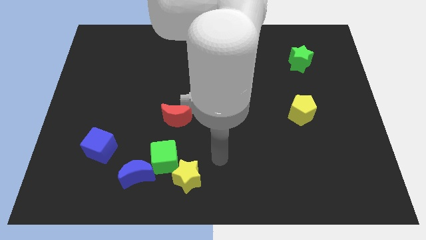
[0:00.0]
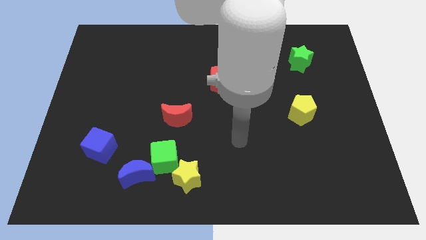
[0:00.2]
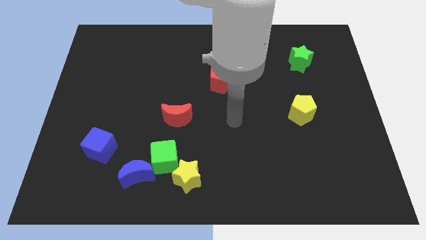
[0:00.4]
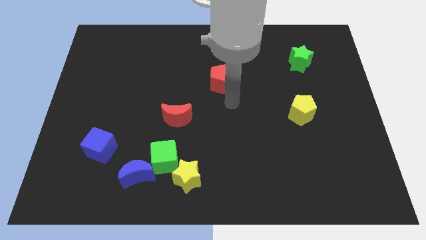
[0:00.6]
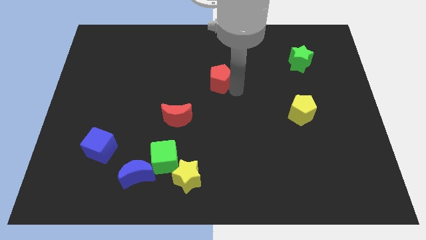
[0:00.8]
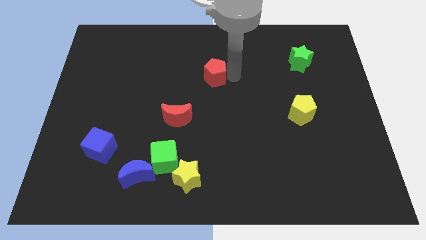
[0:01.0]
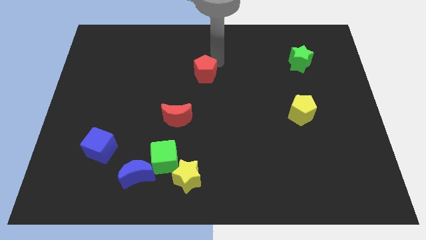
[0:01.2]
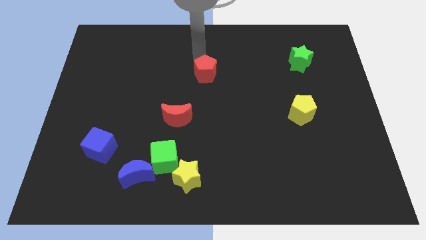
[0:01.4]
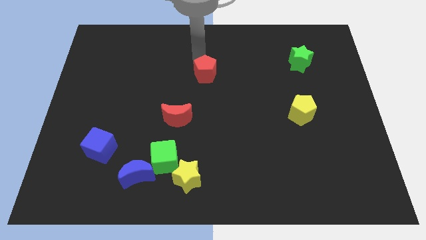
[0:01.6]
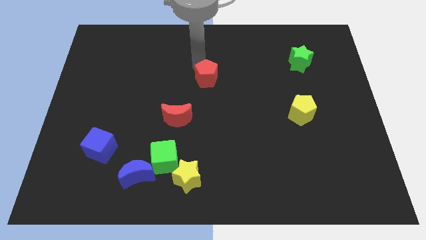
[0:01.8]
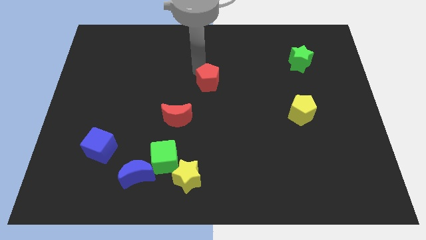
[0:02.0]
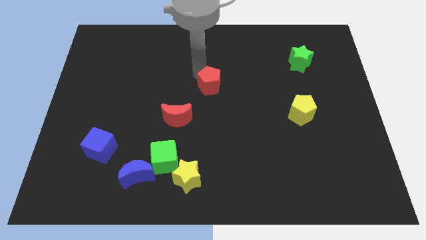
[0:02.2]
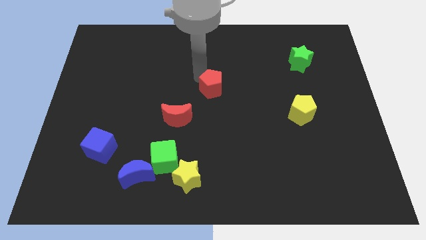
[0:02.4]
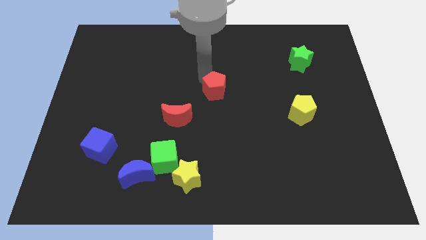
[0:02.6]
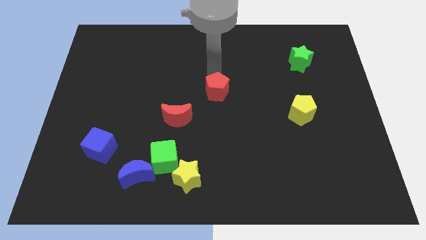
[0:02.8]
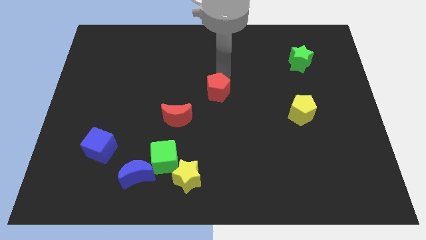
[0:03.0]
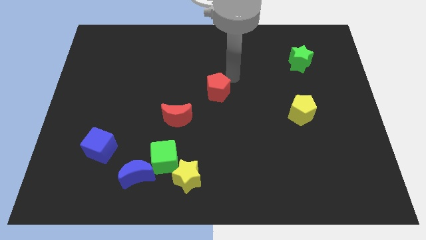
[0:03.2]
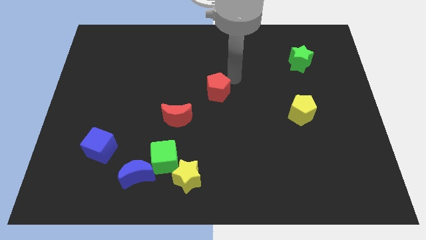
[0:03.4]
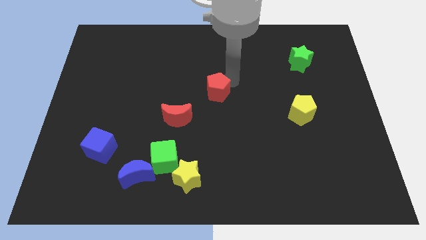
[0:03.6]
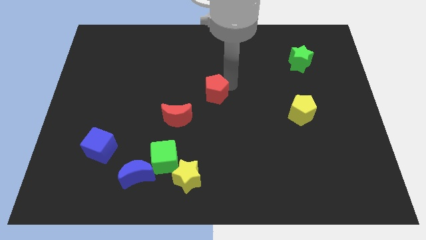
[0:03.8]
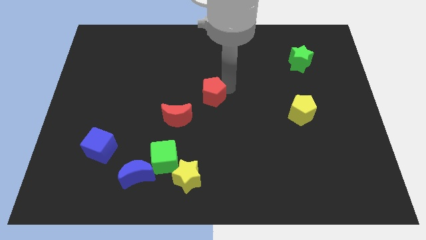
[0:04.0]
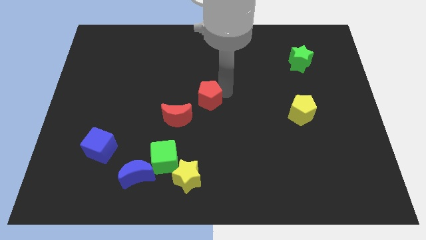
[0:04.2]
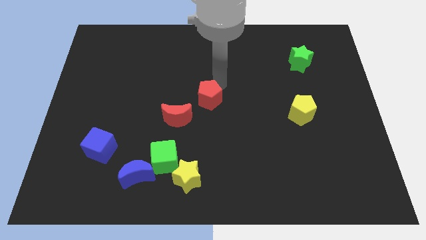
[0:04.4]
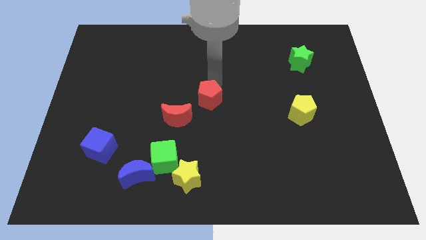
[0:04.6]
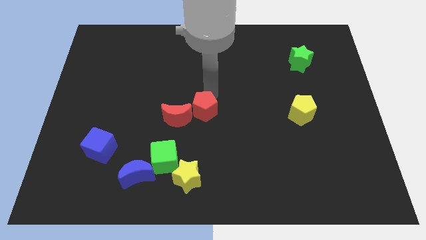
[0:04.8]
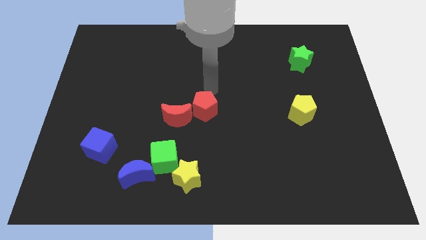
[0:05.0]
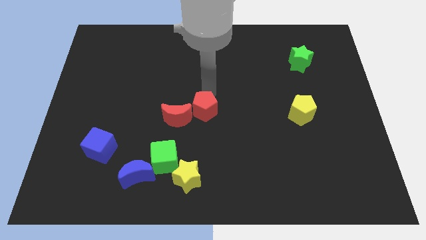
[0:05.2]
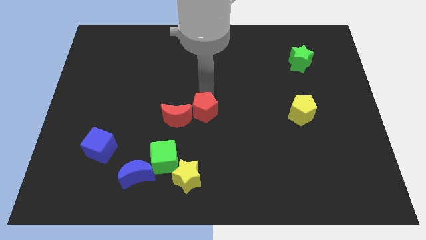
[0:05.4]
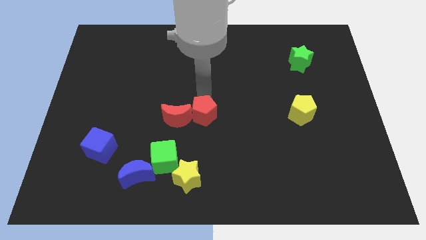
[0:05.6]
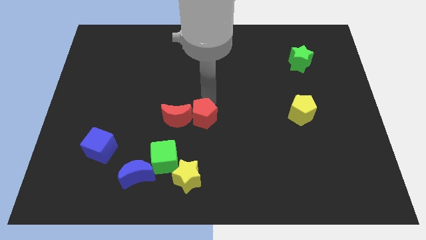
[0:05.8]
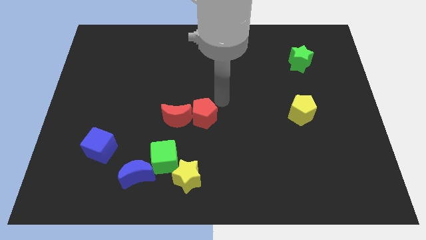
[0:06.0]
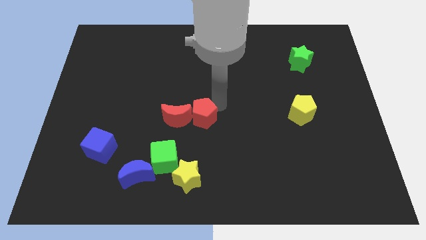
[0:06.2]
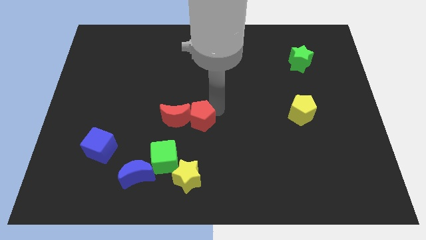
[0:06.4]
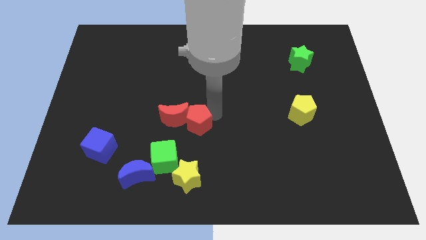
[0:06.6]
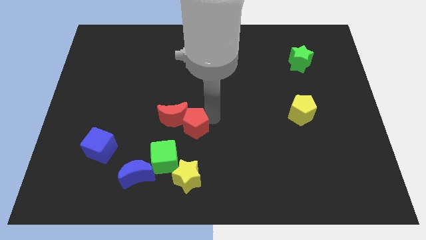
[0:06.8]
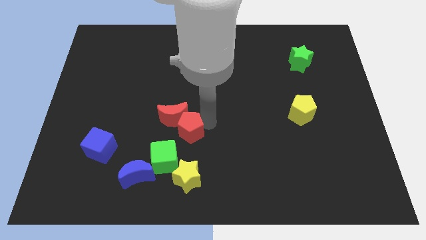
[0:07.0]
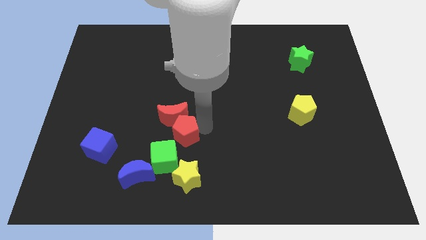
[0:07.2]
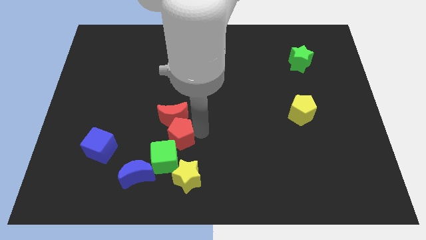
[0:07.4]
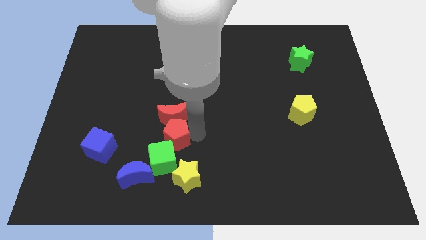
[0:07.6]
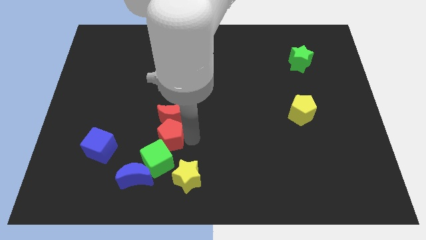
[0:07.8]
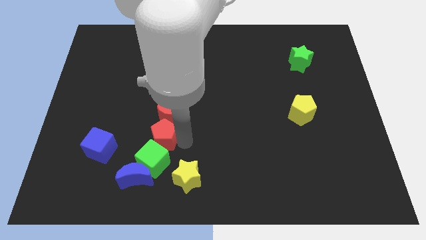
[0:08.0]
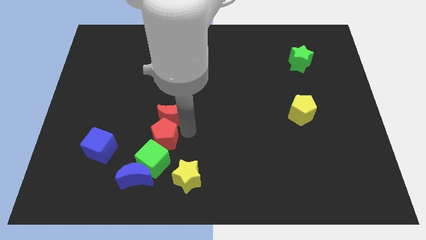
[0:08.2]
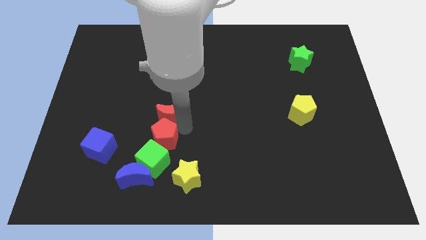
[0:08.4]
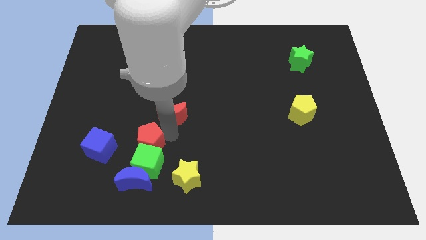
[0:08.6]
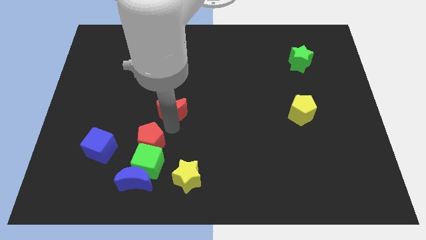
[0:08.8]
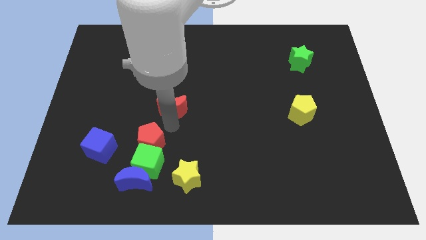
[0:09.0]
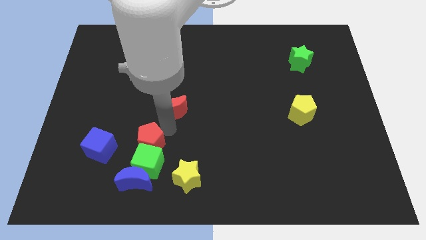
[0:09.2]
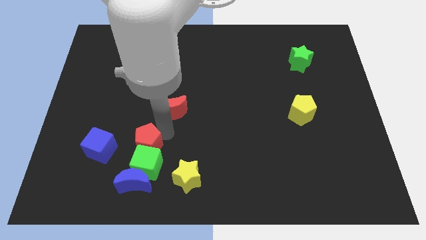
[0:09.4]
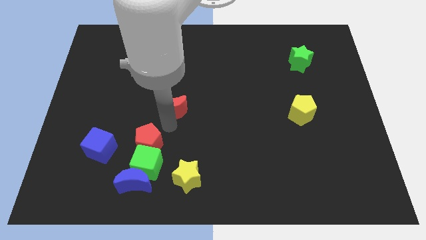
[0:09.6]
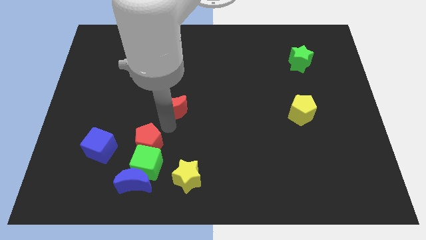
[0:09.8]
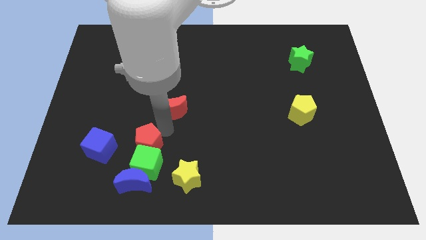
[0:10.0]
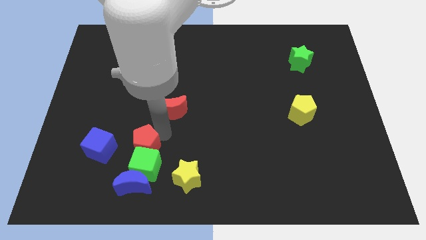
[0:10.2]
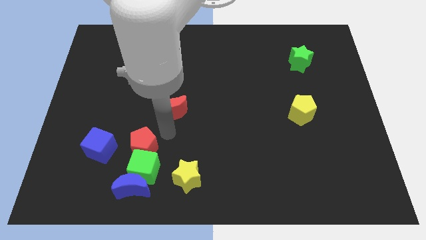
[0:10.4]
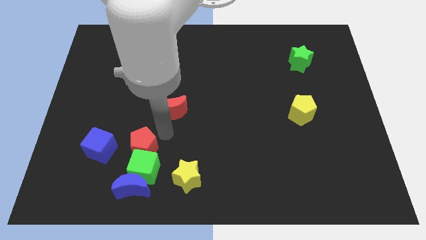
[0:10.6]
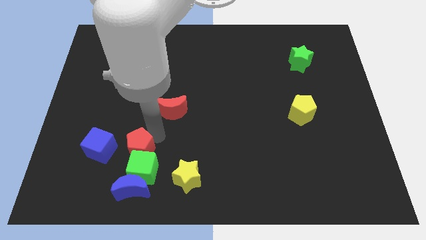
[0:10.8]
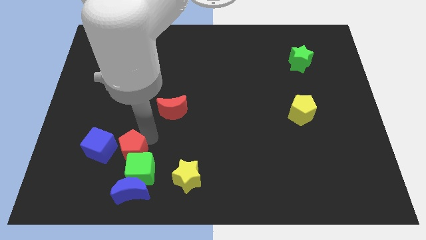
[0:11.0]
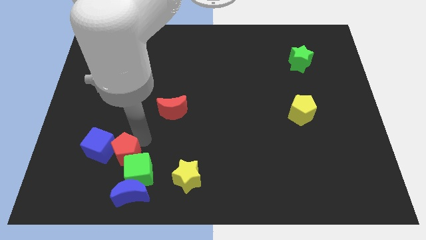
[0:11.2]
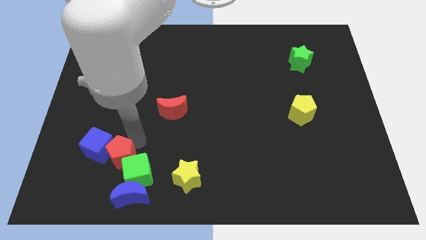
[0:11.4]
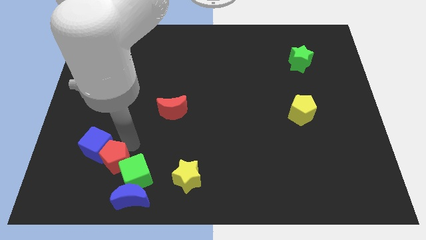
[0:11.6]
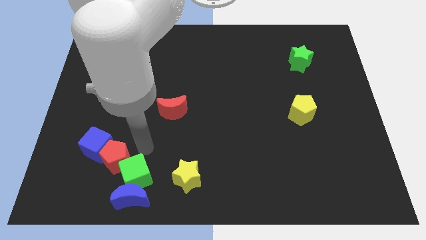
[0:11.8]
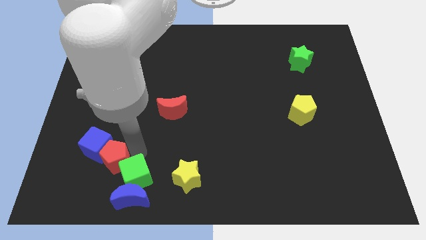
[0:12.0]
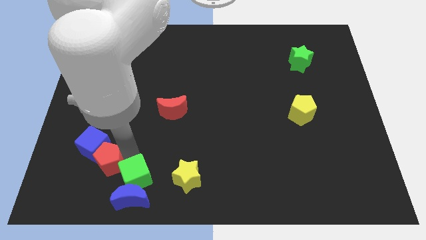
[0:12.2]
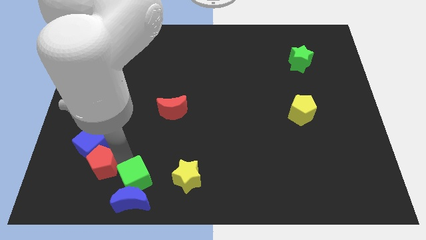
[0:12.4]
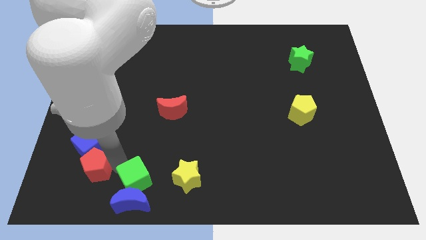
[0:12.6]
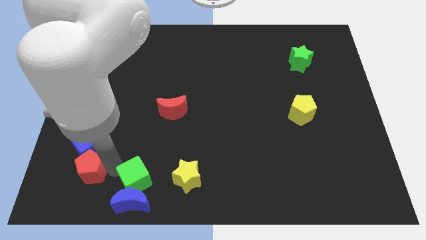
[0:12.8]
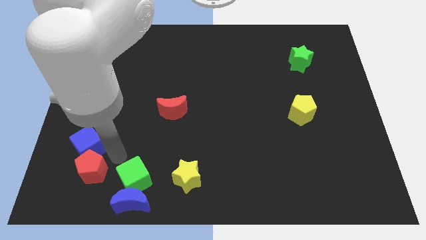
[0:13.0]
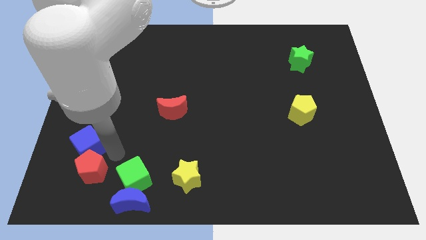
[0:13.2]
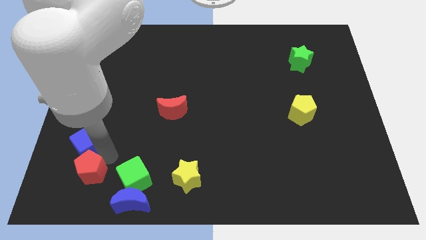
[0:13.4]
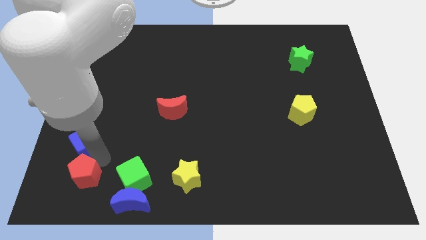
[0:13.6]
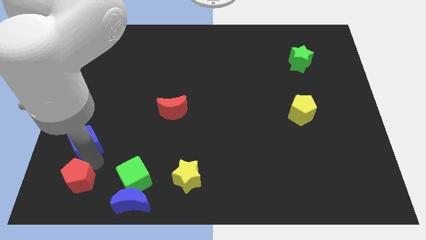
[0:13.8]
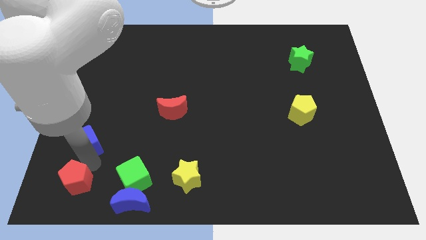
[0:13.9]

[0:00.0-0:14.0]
put the red pentagon to the bottom left corner
